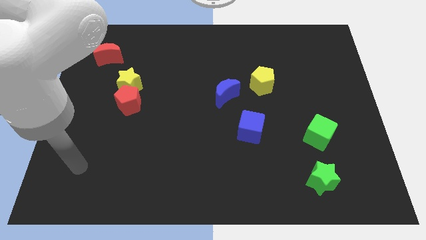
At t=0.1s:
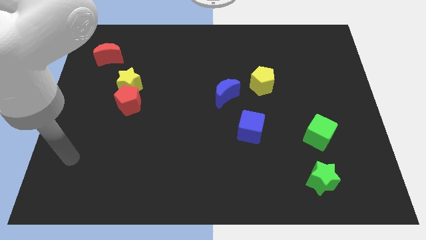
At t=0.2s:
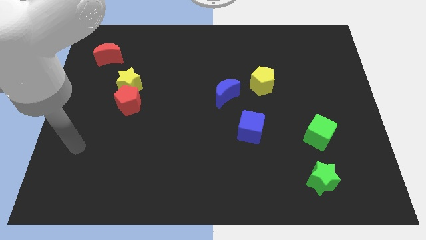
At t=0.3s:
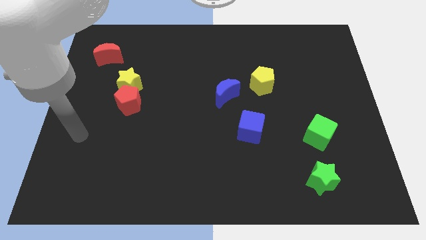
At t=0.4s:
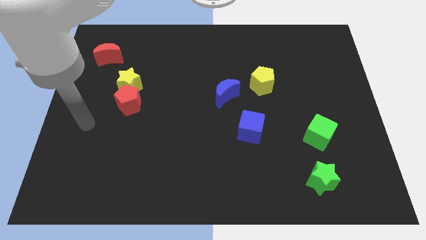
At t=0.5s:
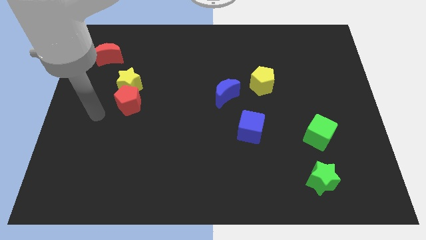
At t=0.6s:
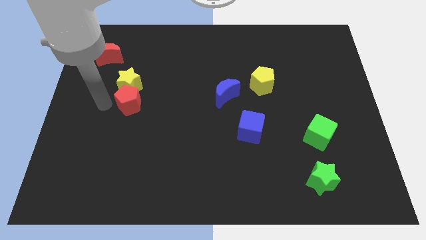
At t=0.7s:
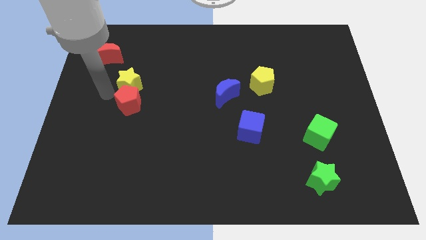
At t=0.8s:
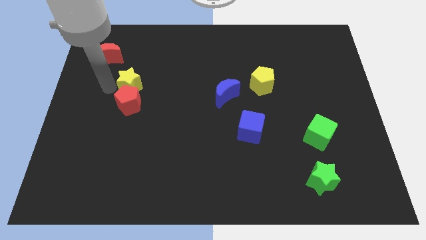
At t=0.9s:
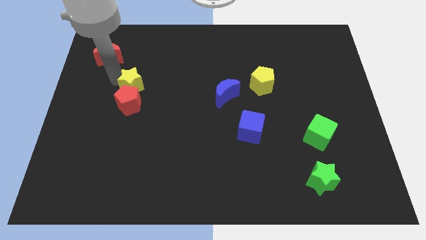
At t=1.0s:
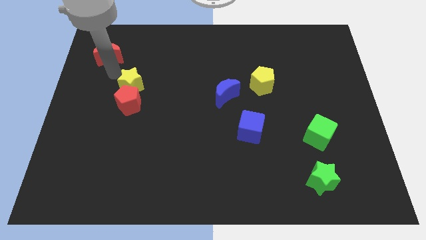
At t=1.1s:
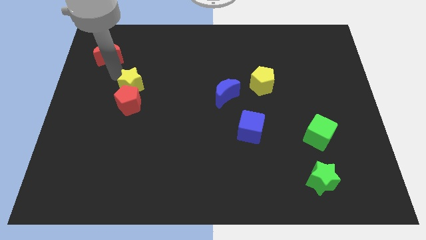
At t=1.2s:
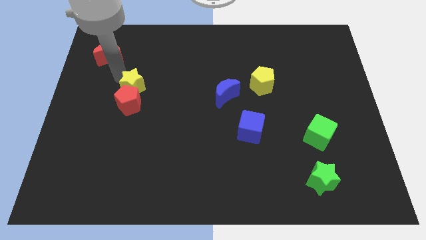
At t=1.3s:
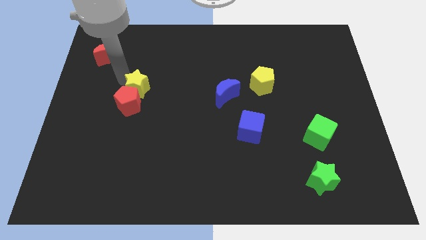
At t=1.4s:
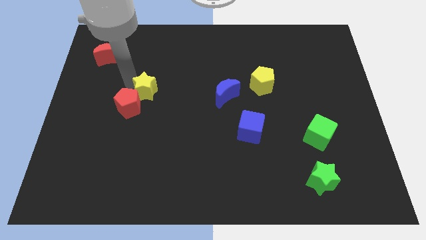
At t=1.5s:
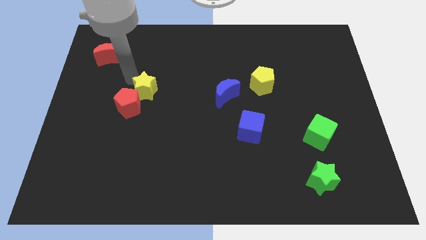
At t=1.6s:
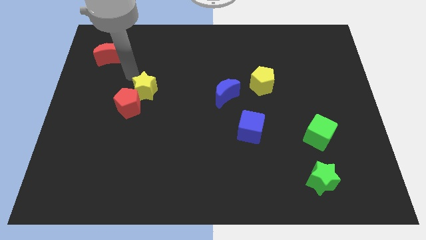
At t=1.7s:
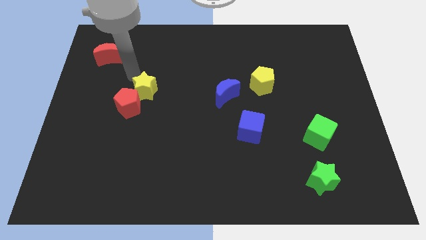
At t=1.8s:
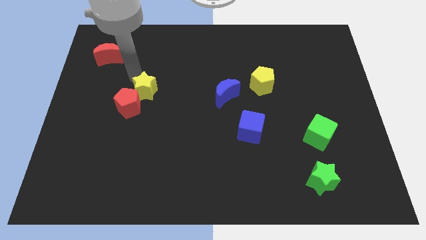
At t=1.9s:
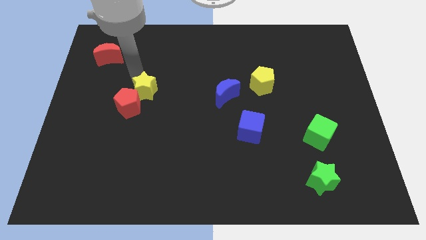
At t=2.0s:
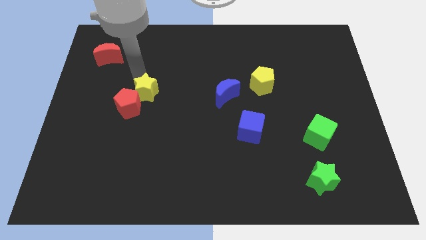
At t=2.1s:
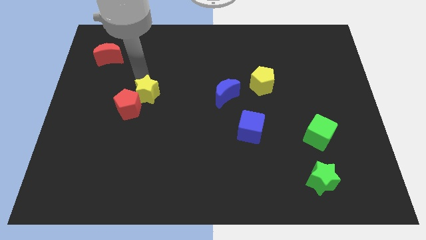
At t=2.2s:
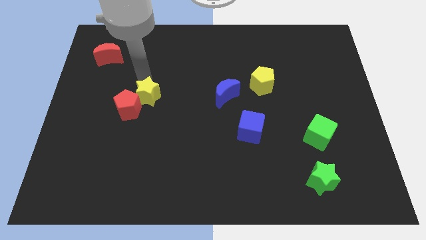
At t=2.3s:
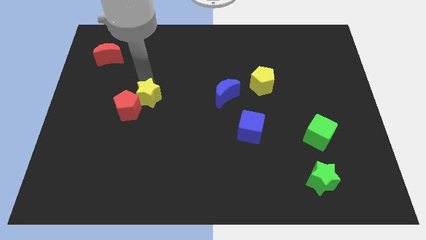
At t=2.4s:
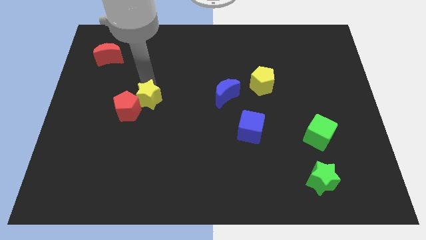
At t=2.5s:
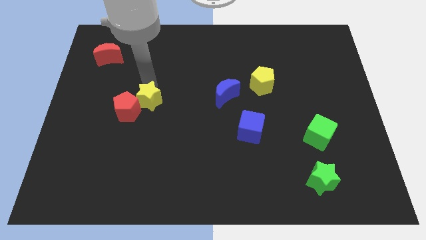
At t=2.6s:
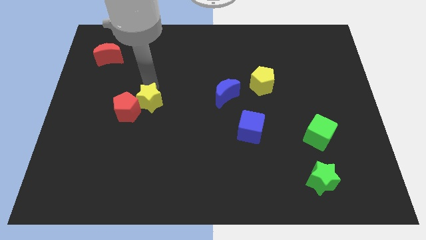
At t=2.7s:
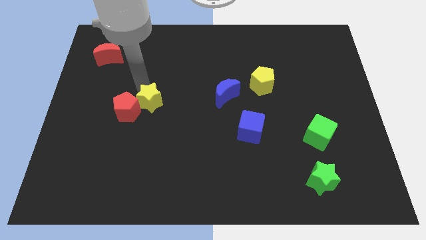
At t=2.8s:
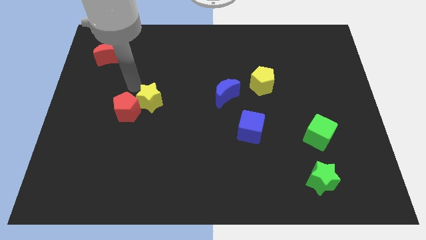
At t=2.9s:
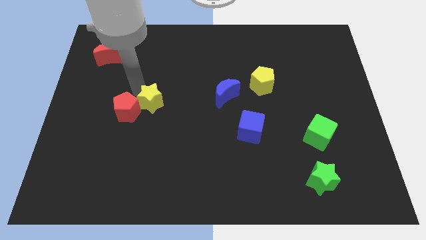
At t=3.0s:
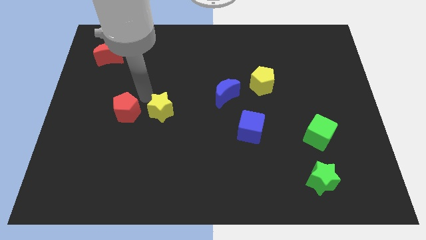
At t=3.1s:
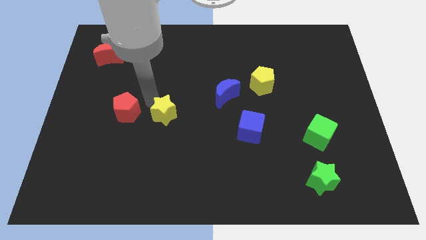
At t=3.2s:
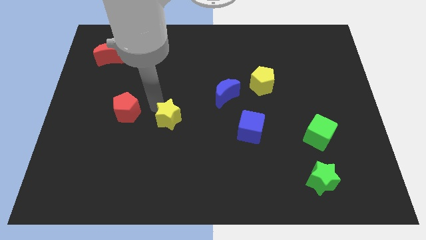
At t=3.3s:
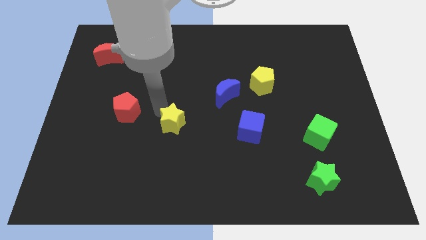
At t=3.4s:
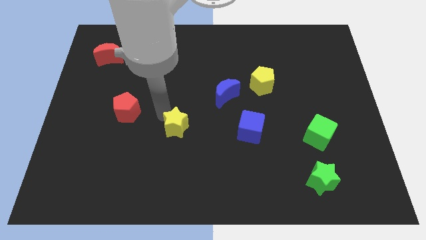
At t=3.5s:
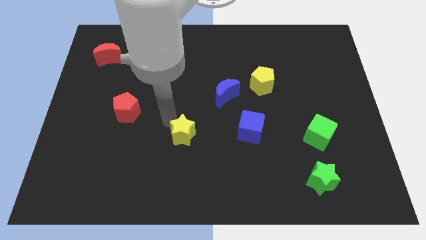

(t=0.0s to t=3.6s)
push the yellow star downwards and to the right diagonally

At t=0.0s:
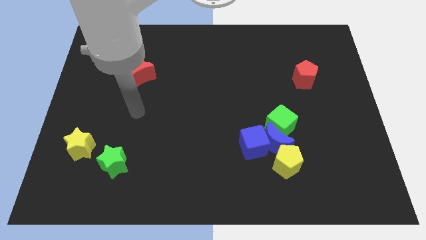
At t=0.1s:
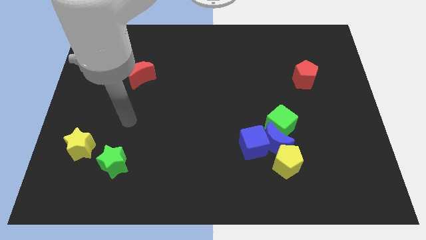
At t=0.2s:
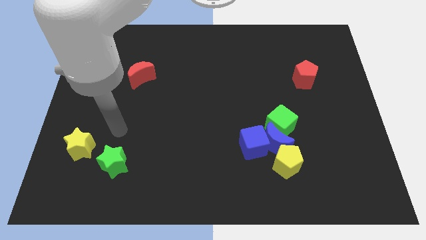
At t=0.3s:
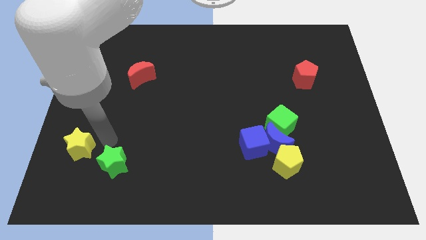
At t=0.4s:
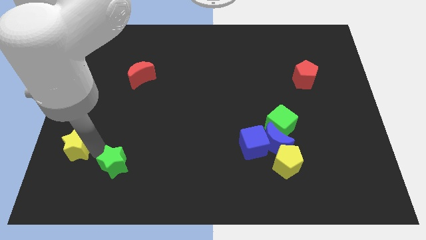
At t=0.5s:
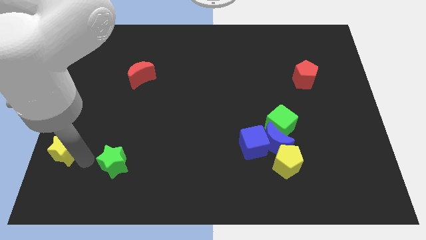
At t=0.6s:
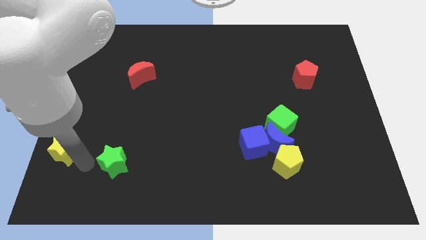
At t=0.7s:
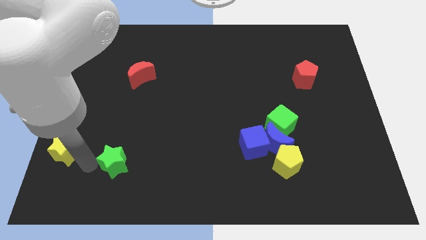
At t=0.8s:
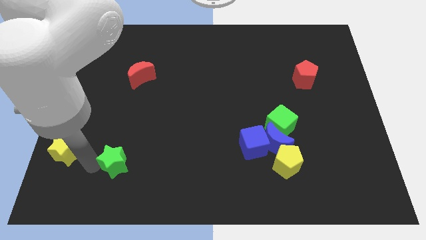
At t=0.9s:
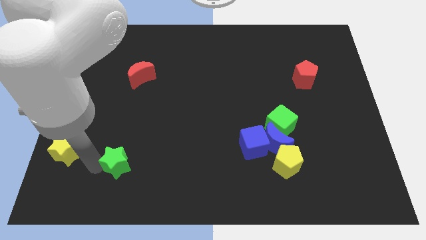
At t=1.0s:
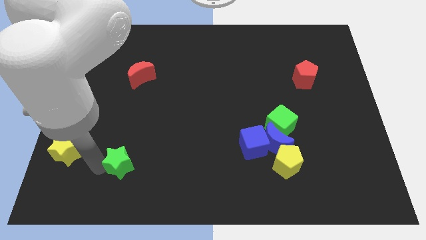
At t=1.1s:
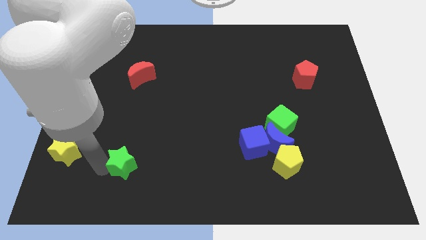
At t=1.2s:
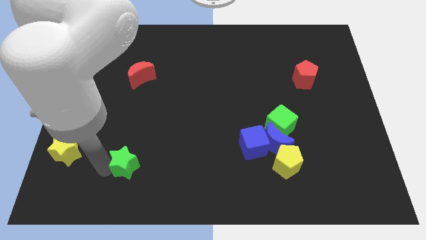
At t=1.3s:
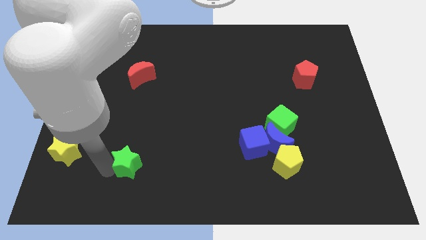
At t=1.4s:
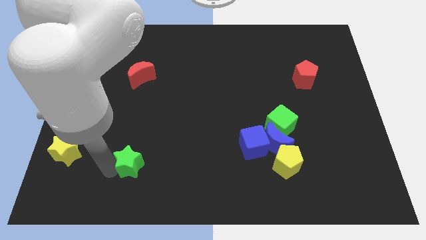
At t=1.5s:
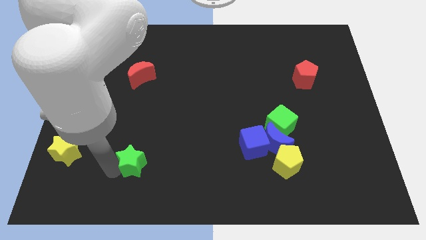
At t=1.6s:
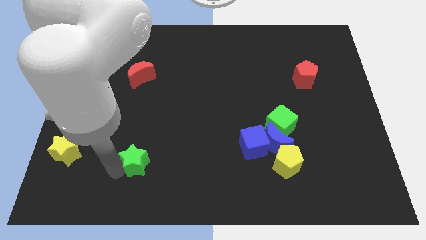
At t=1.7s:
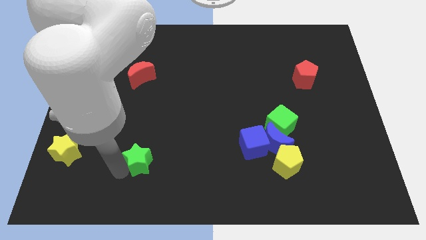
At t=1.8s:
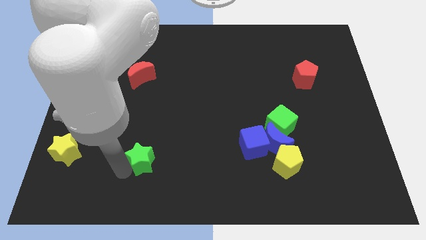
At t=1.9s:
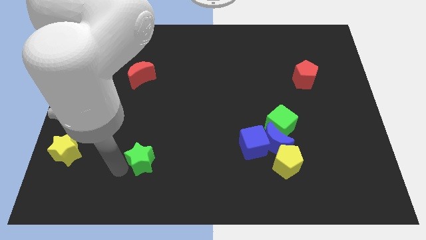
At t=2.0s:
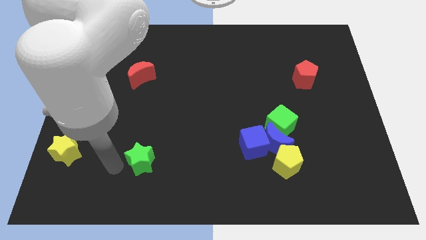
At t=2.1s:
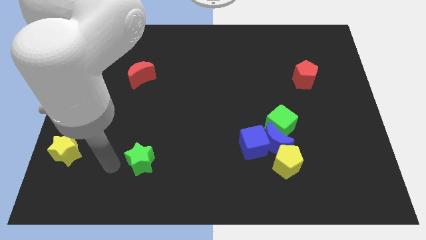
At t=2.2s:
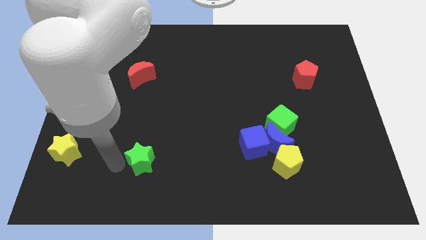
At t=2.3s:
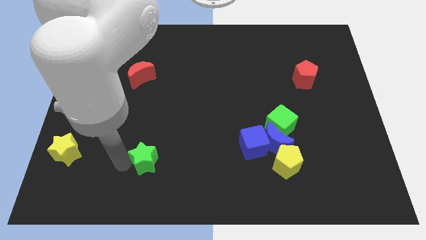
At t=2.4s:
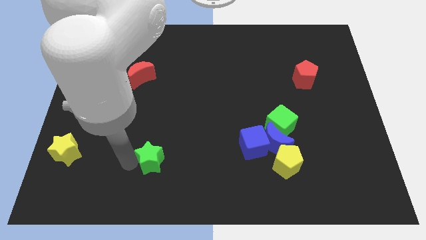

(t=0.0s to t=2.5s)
slightly slide the green star to the right

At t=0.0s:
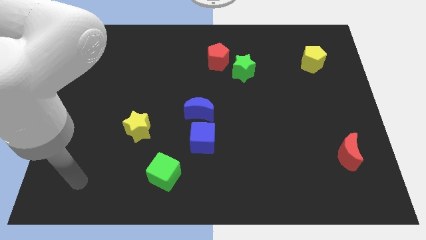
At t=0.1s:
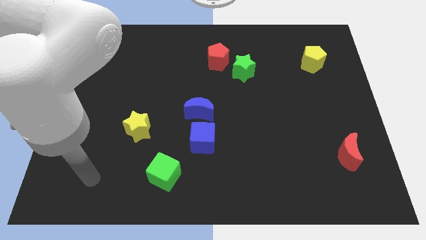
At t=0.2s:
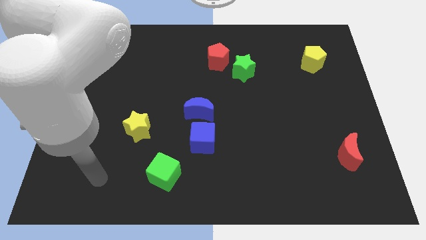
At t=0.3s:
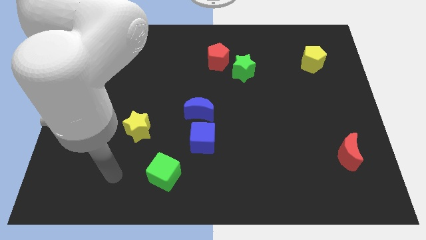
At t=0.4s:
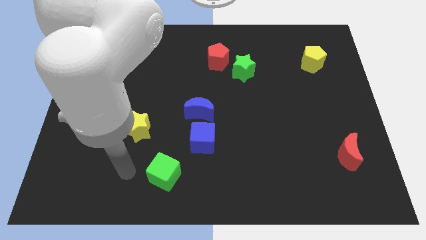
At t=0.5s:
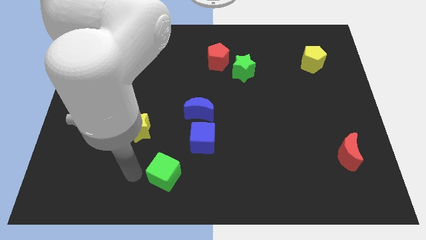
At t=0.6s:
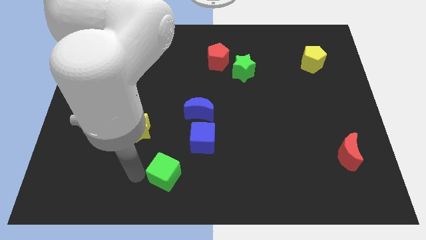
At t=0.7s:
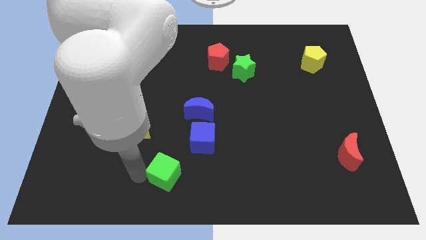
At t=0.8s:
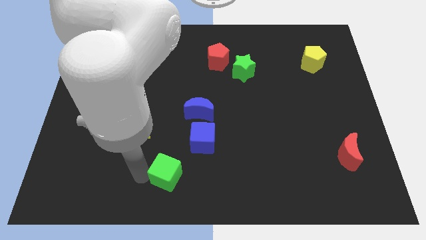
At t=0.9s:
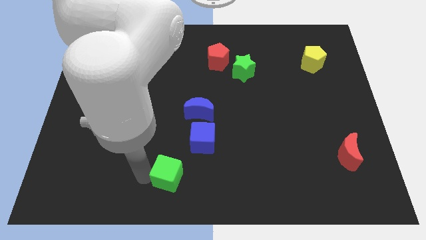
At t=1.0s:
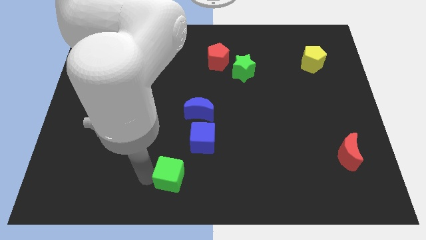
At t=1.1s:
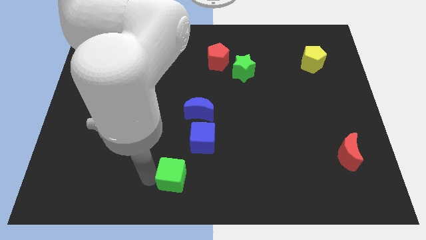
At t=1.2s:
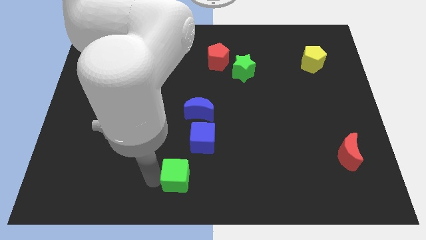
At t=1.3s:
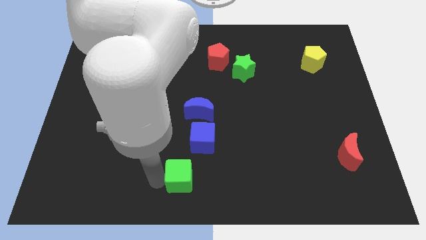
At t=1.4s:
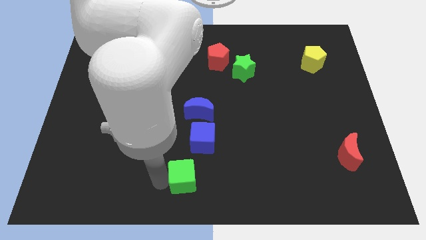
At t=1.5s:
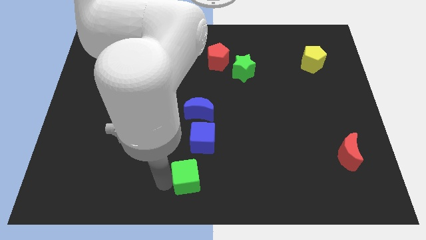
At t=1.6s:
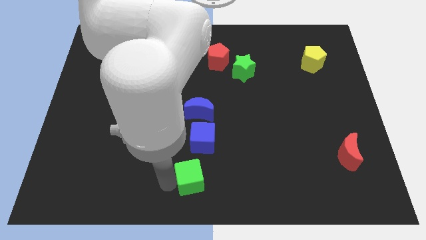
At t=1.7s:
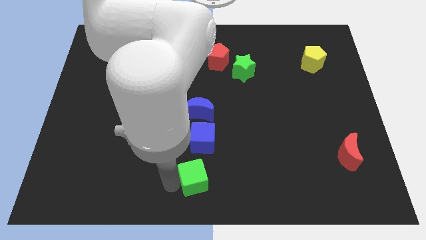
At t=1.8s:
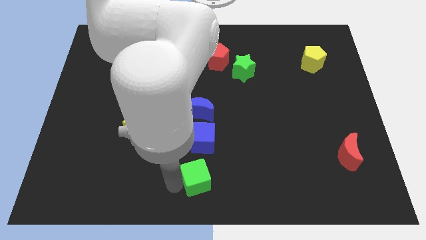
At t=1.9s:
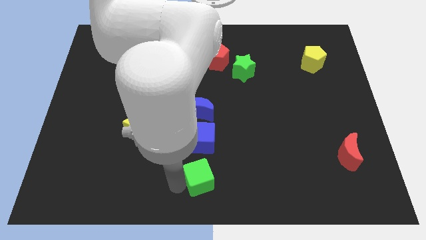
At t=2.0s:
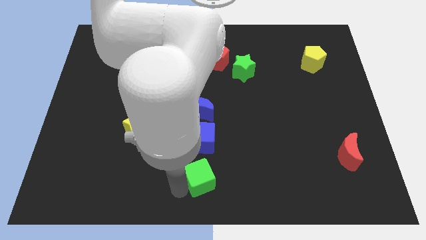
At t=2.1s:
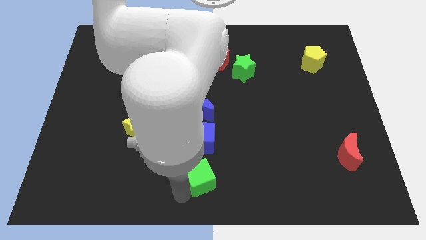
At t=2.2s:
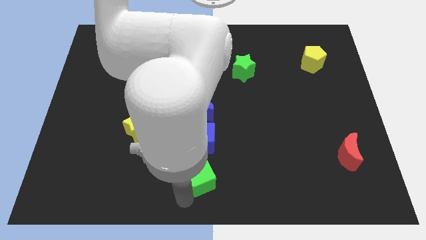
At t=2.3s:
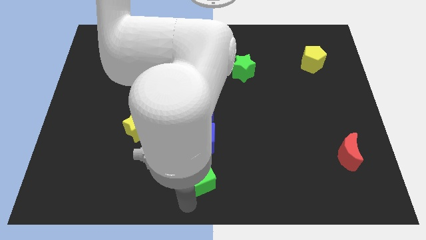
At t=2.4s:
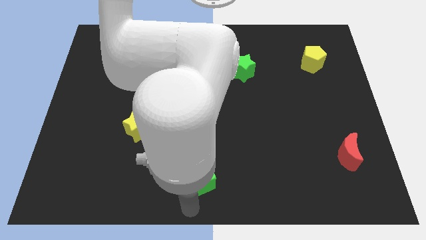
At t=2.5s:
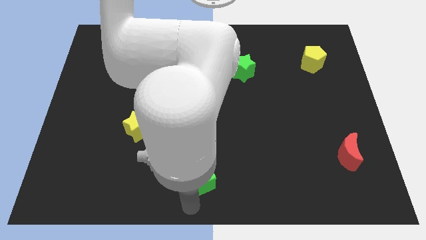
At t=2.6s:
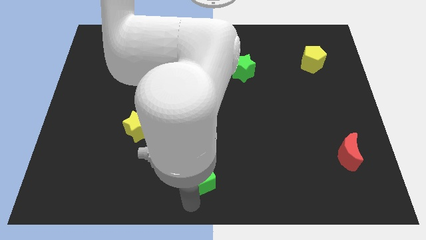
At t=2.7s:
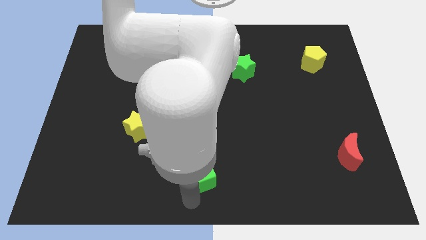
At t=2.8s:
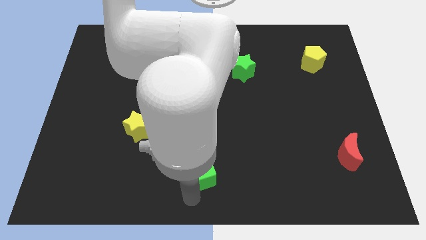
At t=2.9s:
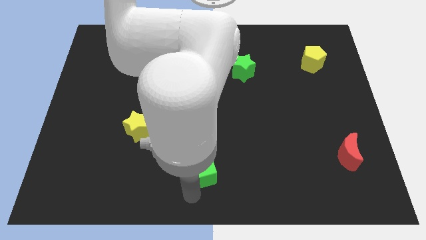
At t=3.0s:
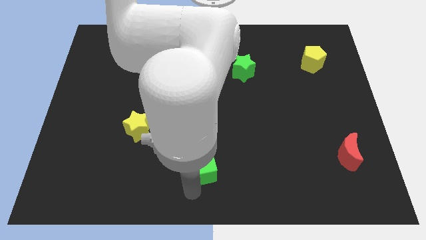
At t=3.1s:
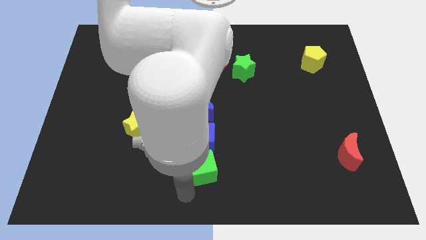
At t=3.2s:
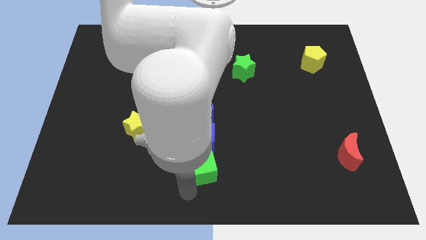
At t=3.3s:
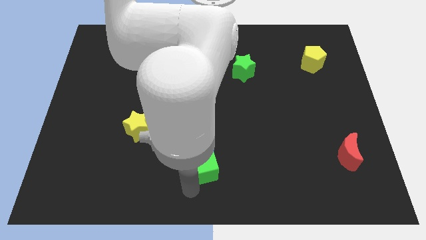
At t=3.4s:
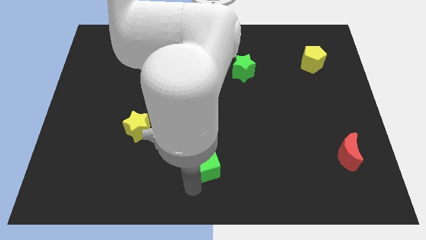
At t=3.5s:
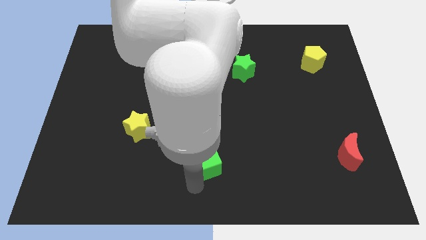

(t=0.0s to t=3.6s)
slide the green cube somewhat upwards and to the right
